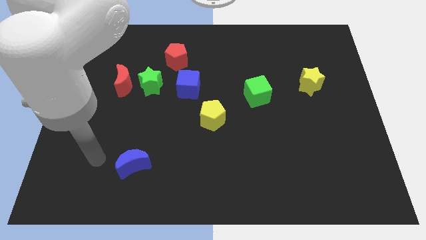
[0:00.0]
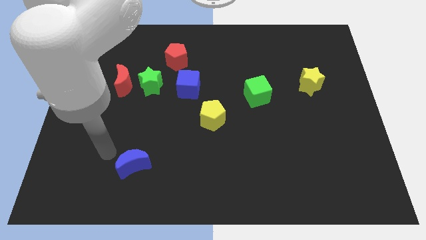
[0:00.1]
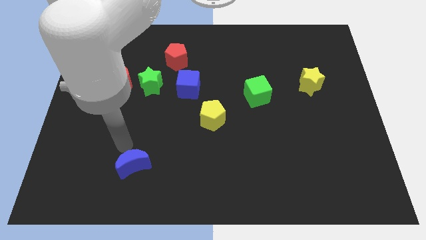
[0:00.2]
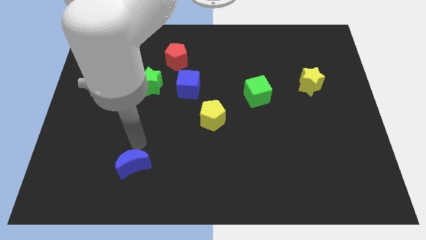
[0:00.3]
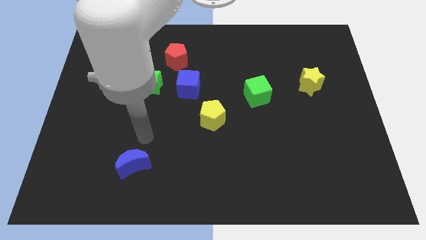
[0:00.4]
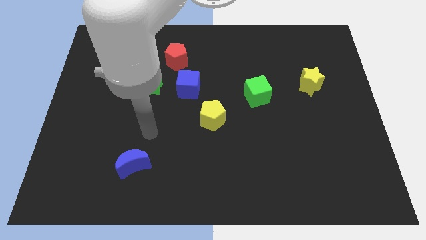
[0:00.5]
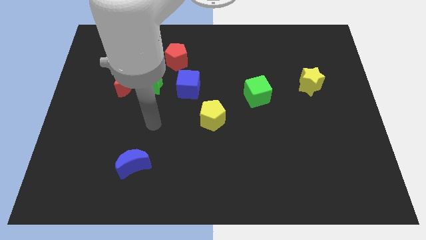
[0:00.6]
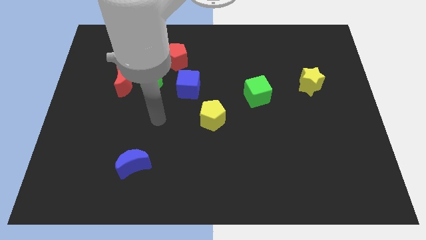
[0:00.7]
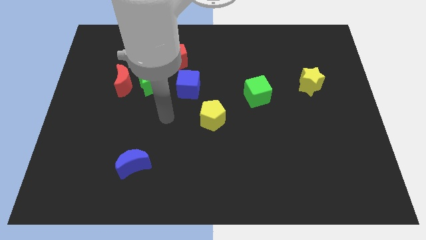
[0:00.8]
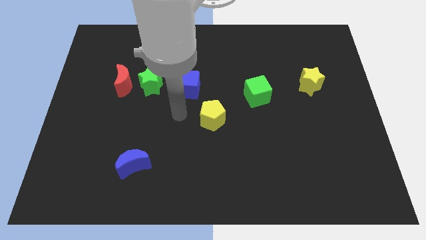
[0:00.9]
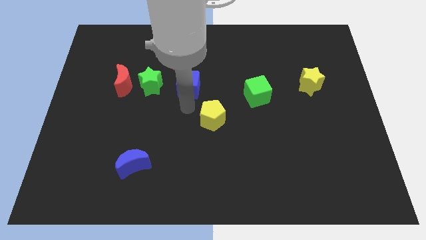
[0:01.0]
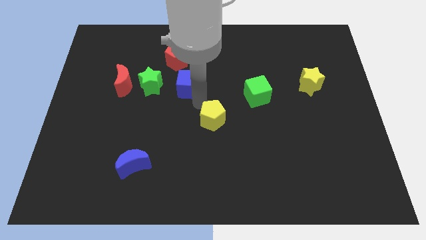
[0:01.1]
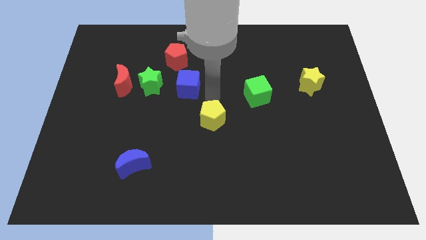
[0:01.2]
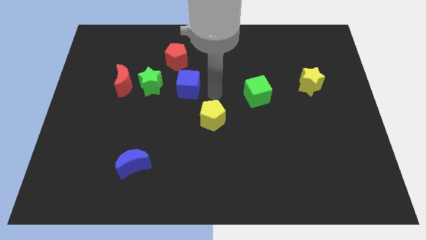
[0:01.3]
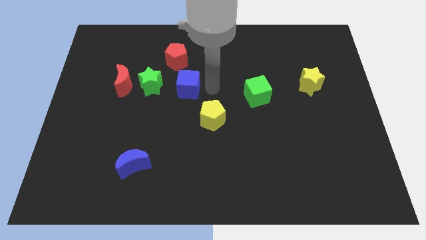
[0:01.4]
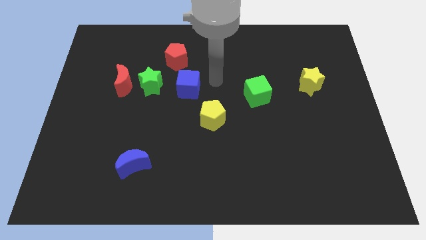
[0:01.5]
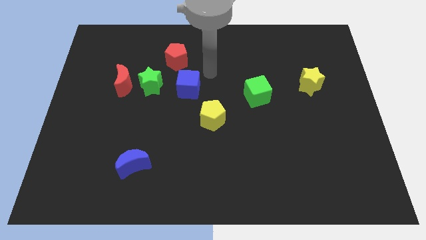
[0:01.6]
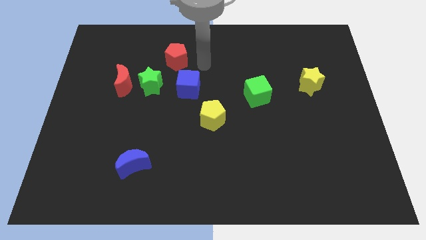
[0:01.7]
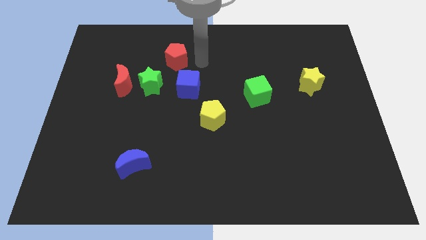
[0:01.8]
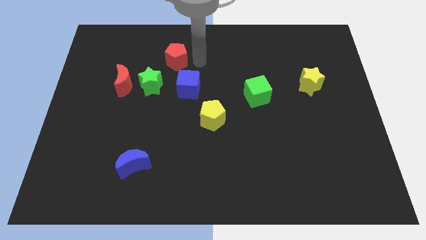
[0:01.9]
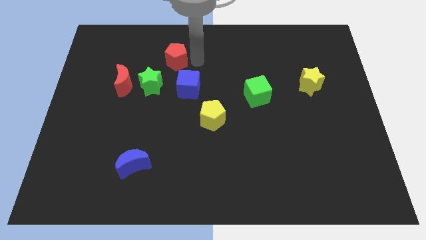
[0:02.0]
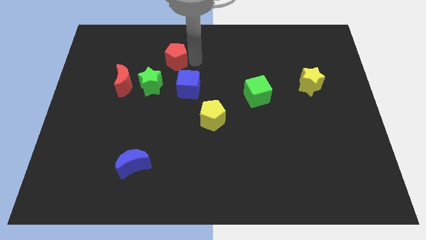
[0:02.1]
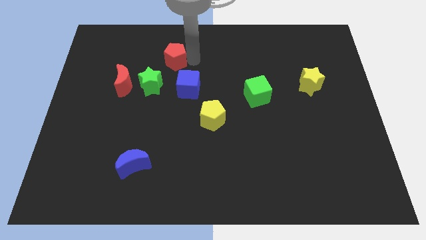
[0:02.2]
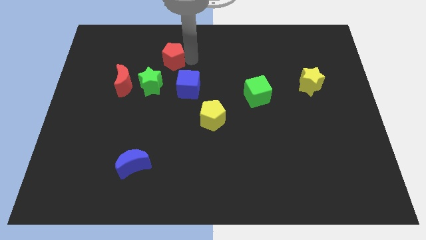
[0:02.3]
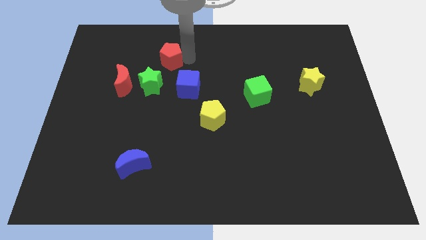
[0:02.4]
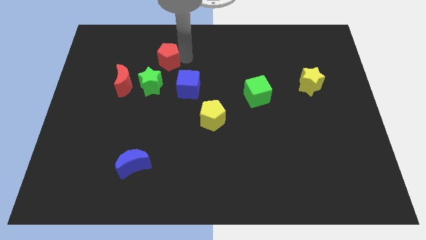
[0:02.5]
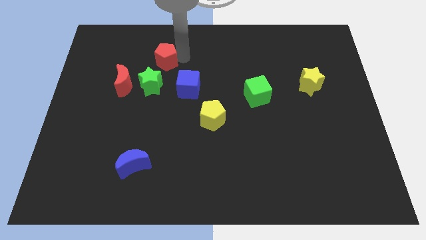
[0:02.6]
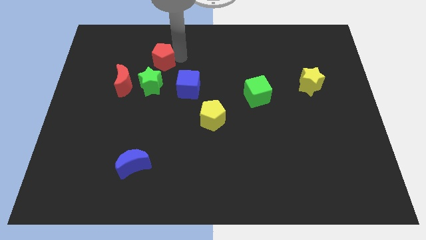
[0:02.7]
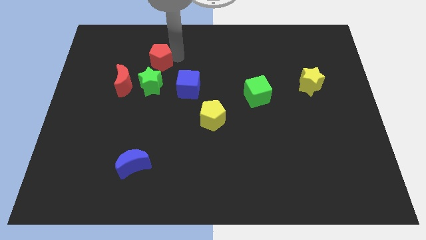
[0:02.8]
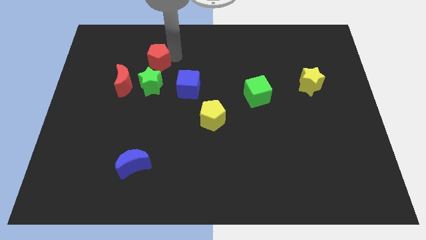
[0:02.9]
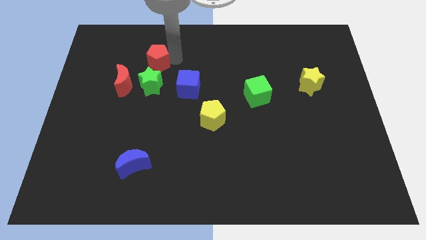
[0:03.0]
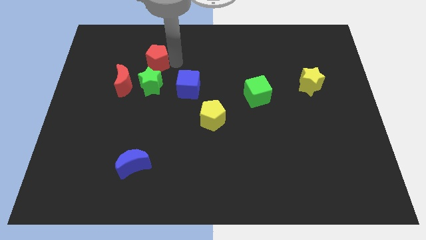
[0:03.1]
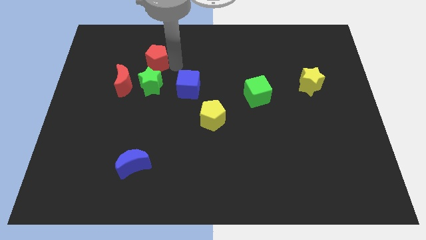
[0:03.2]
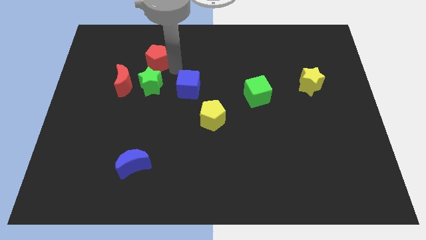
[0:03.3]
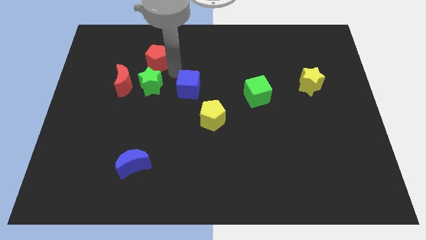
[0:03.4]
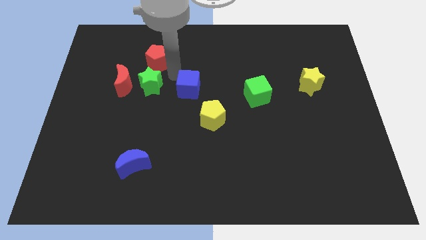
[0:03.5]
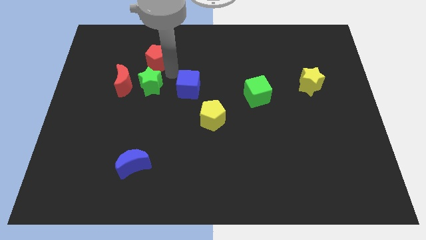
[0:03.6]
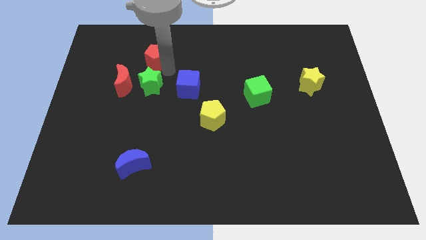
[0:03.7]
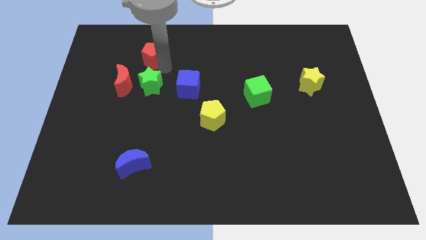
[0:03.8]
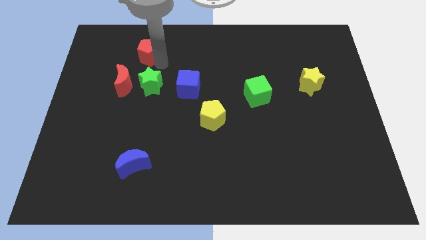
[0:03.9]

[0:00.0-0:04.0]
slightly move the red pentagon to the left

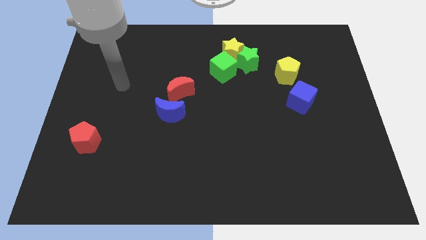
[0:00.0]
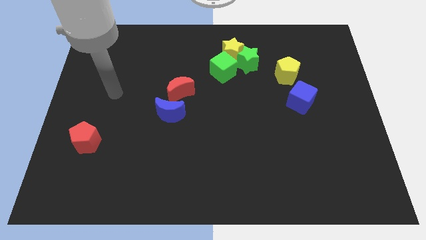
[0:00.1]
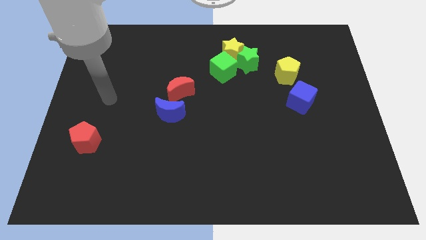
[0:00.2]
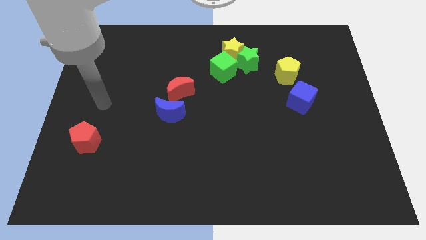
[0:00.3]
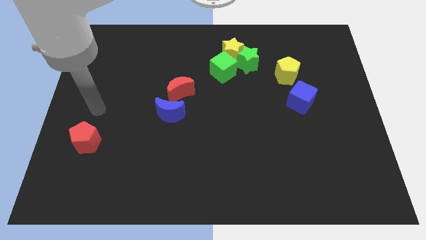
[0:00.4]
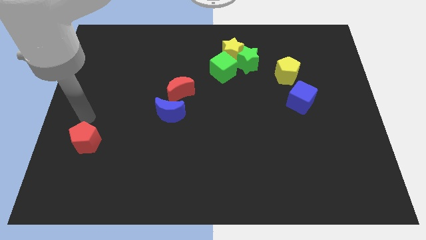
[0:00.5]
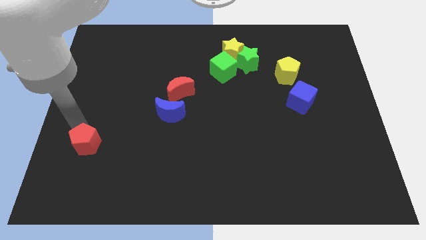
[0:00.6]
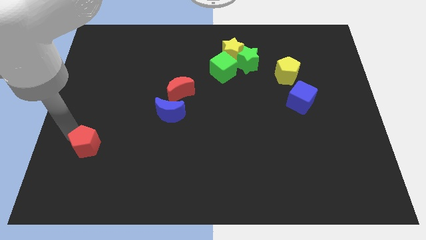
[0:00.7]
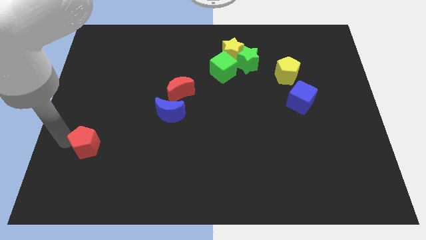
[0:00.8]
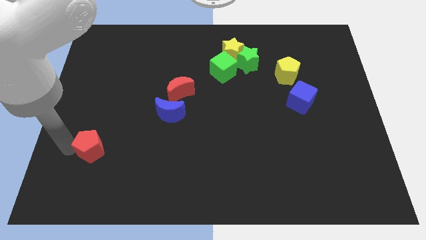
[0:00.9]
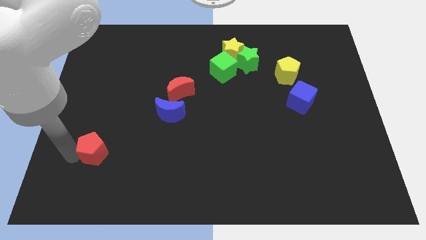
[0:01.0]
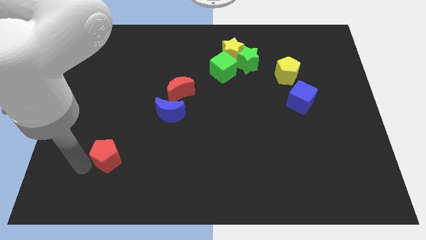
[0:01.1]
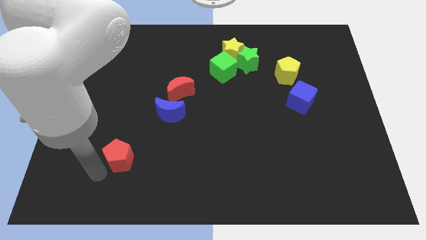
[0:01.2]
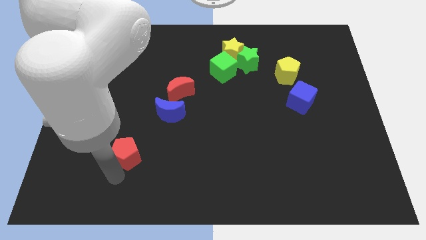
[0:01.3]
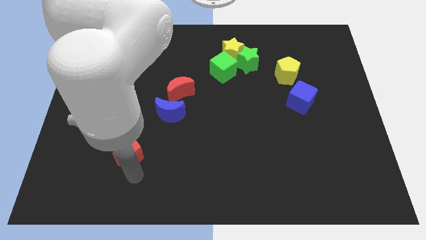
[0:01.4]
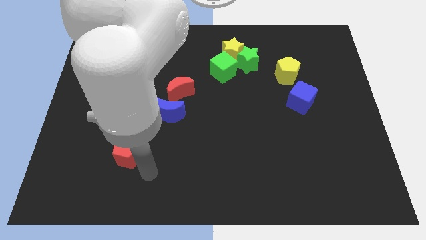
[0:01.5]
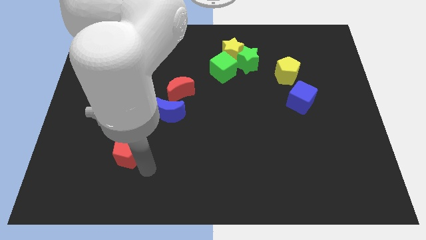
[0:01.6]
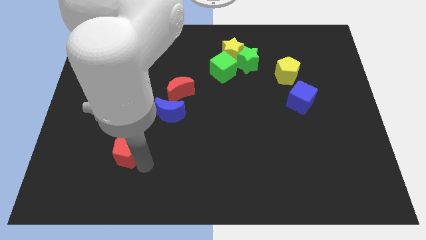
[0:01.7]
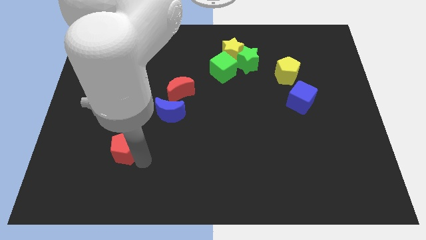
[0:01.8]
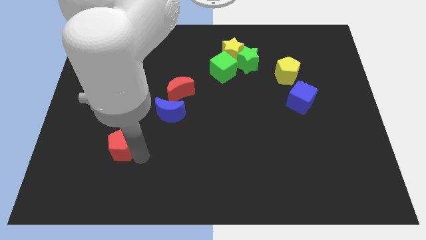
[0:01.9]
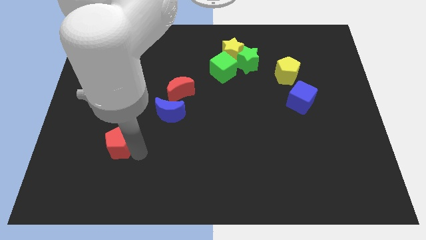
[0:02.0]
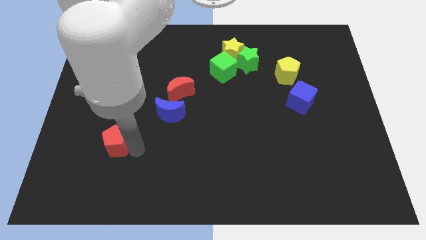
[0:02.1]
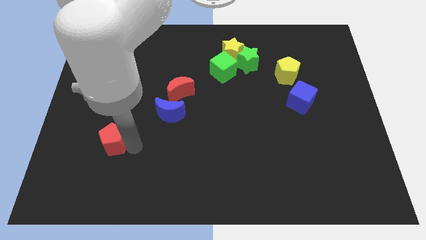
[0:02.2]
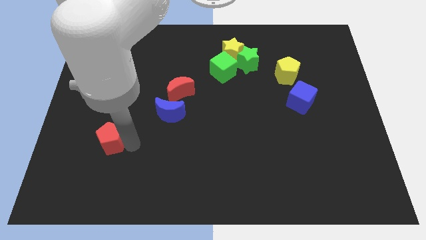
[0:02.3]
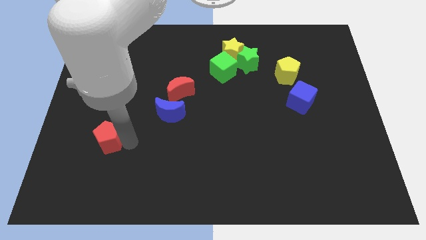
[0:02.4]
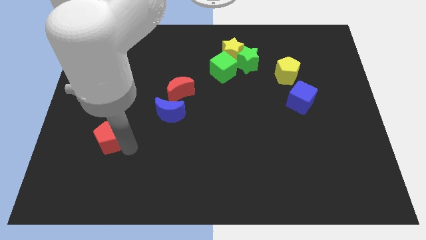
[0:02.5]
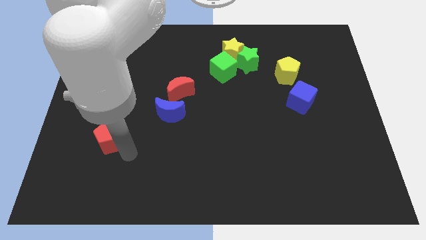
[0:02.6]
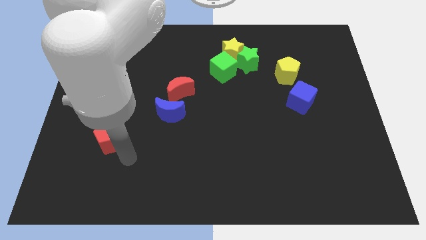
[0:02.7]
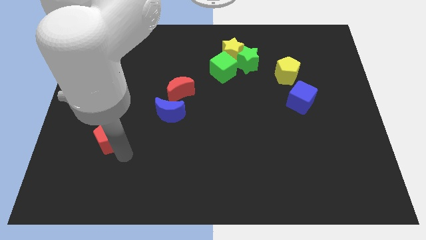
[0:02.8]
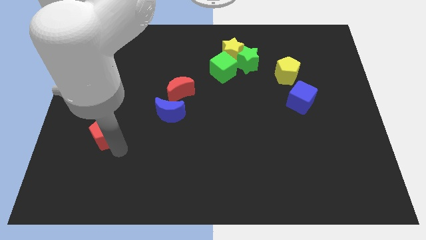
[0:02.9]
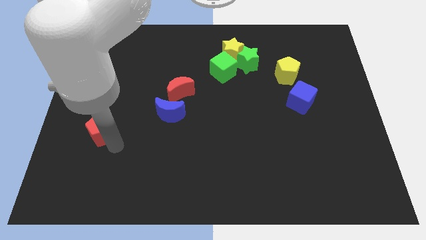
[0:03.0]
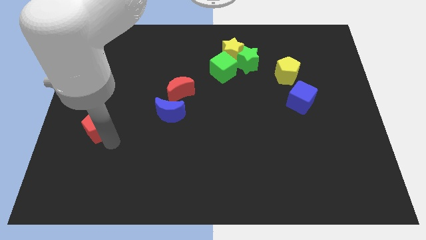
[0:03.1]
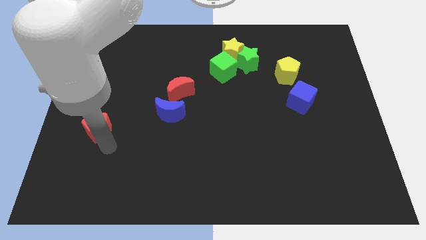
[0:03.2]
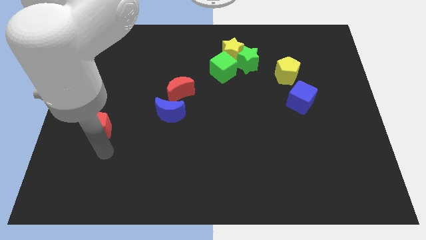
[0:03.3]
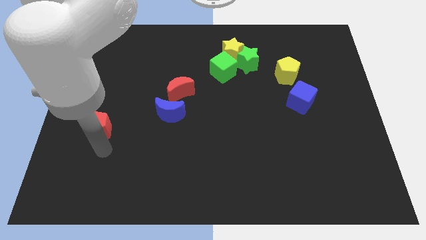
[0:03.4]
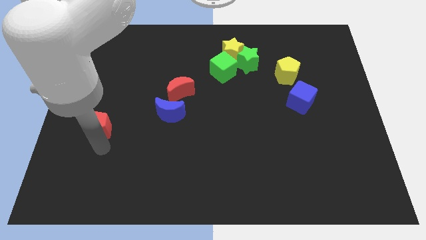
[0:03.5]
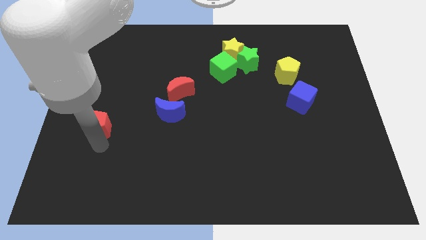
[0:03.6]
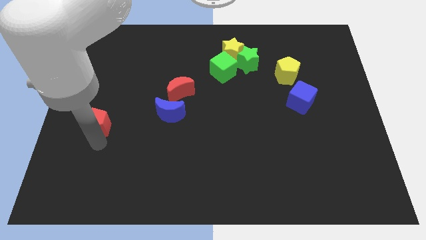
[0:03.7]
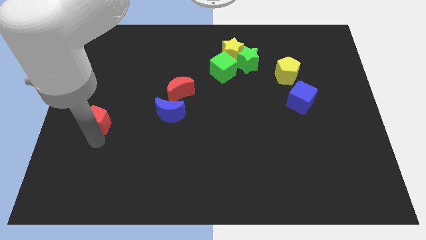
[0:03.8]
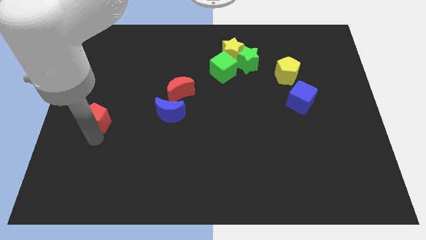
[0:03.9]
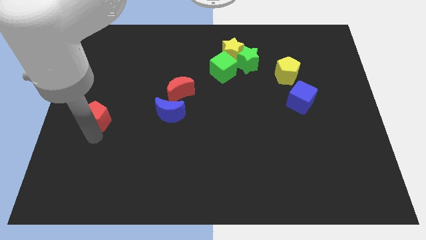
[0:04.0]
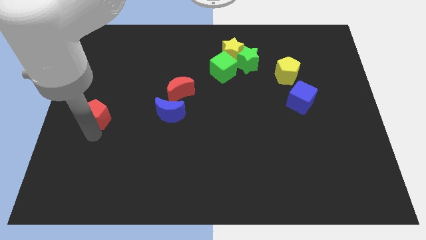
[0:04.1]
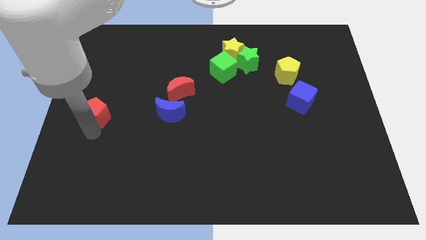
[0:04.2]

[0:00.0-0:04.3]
move the red pentagon a little upwards
